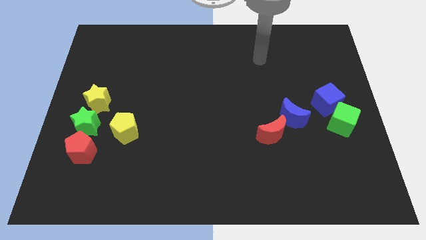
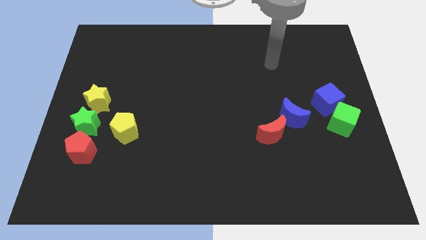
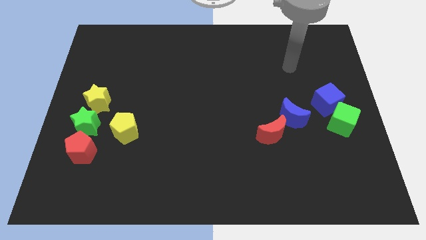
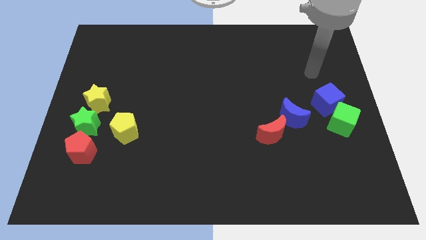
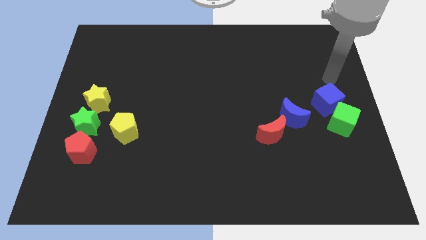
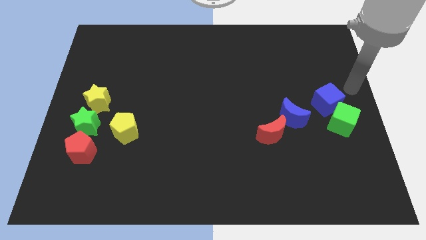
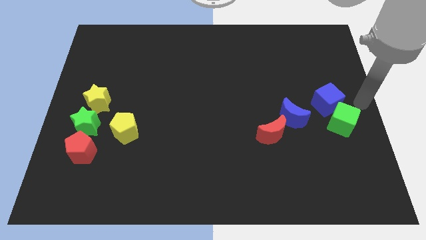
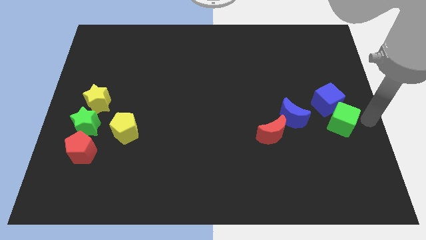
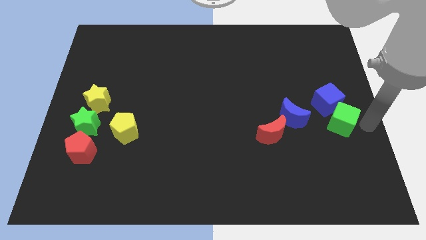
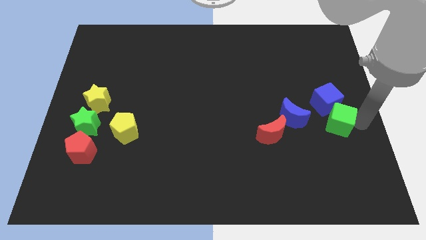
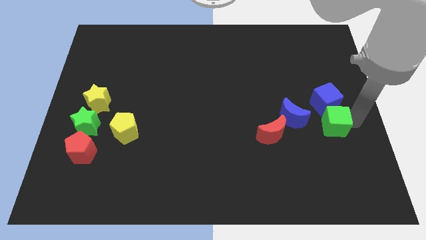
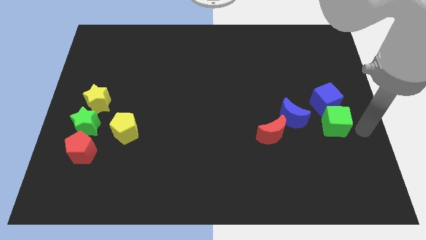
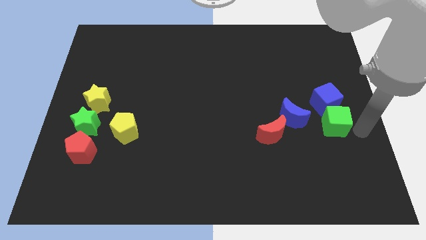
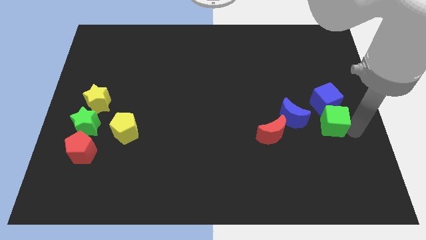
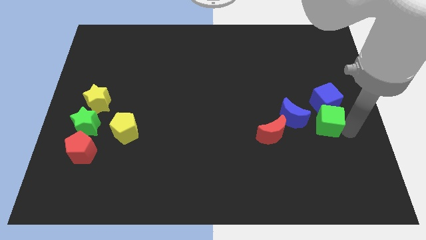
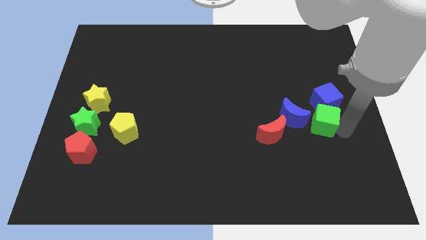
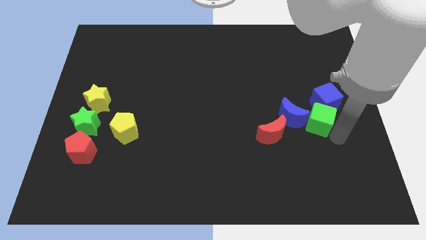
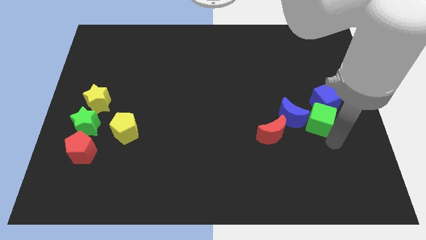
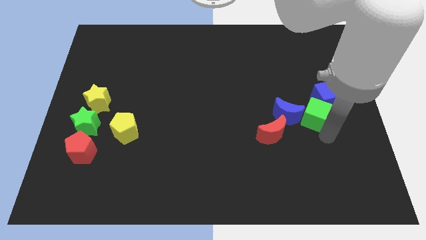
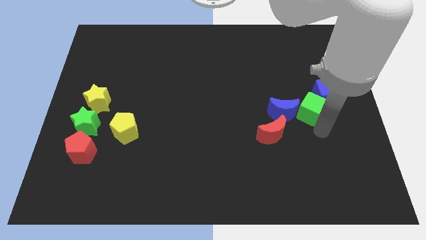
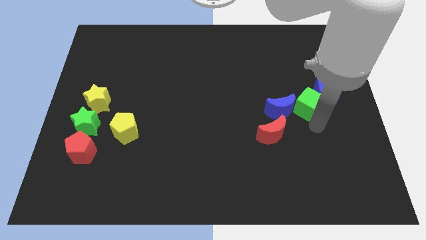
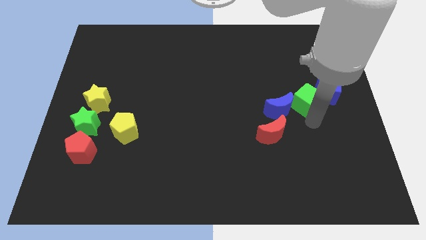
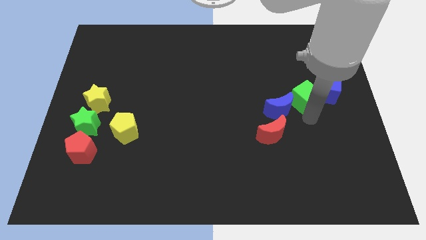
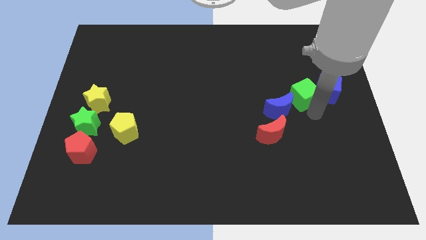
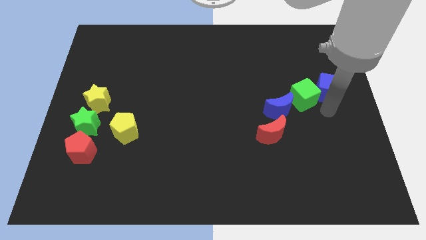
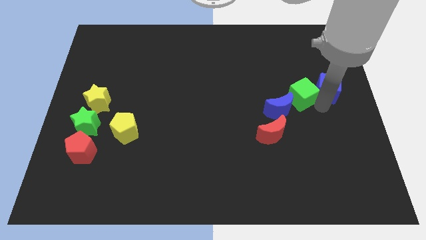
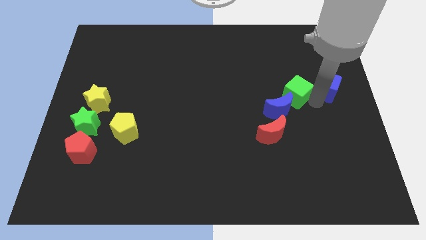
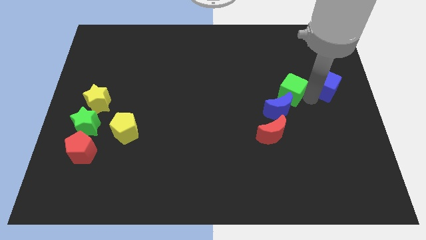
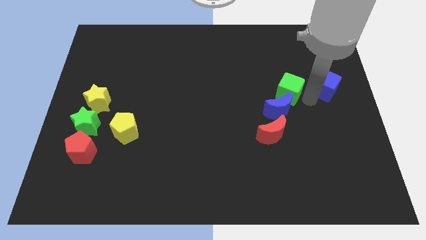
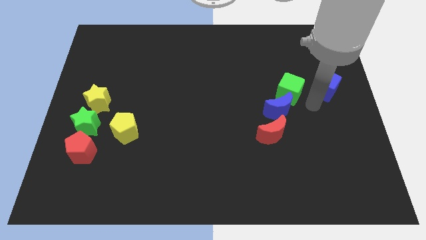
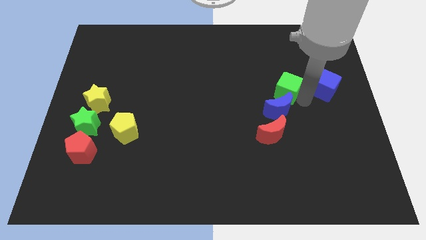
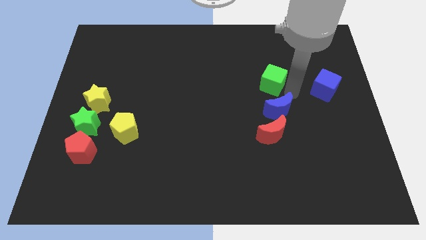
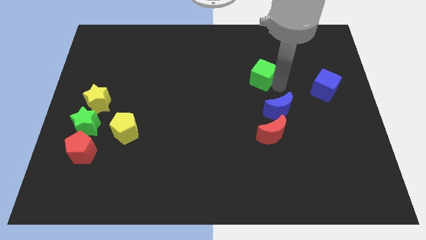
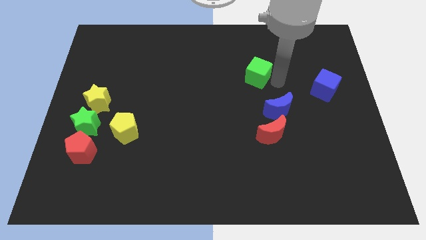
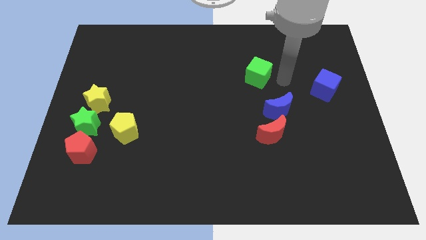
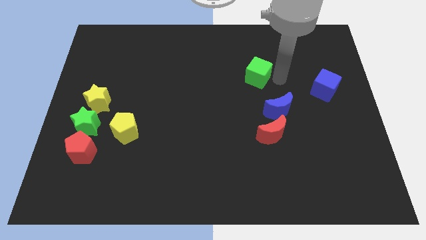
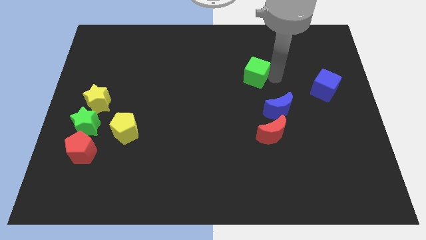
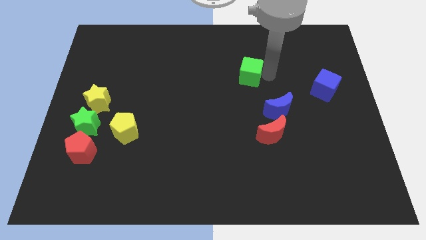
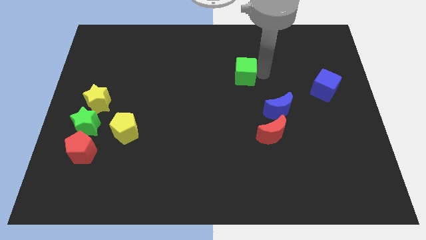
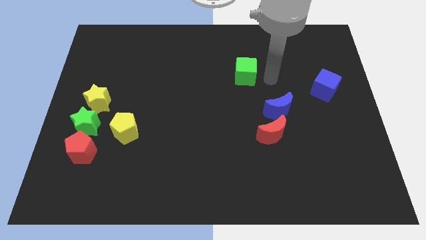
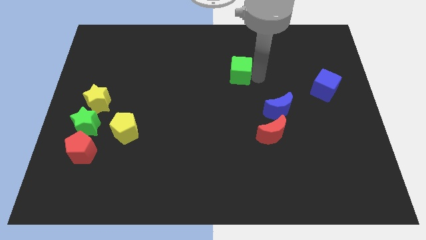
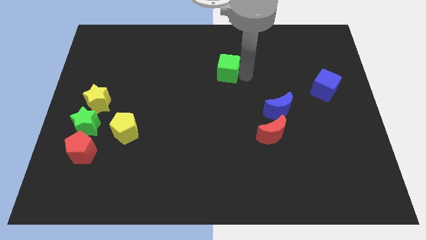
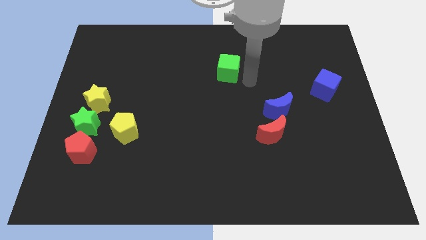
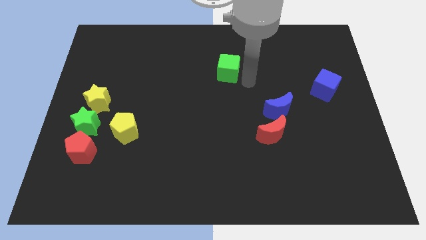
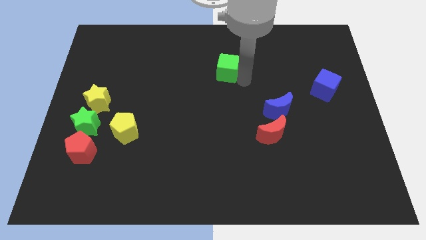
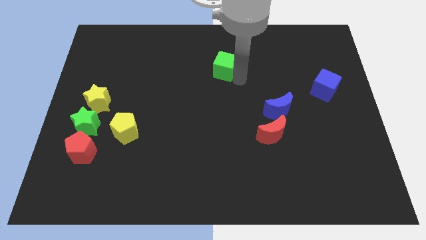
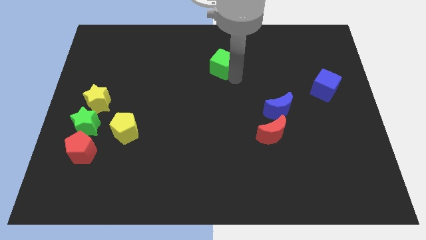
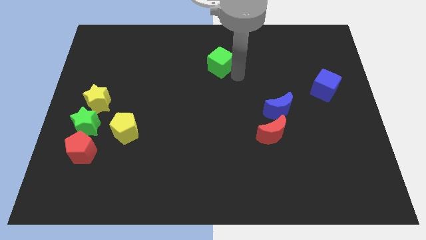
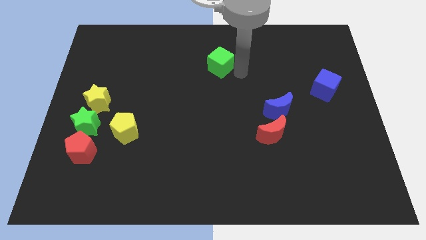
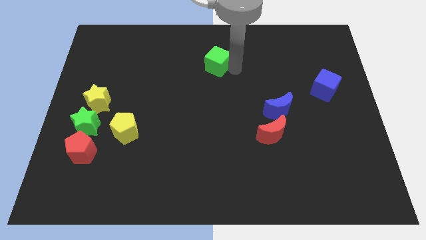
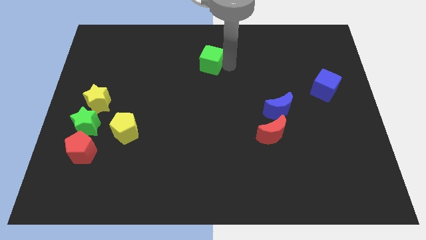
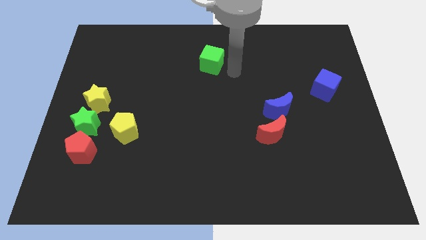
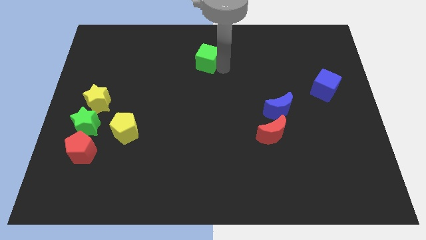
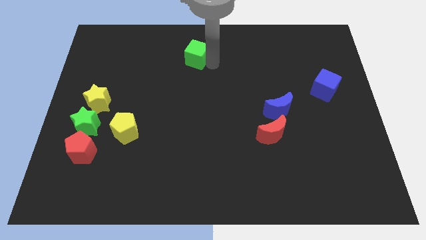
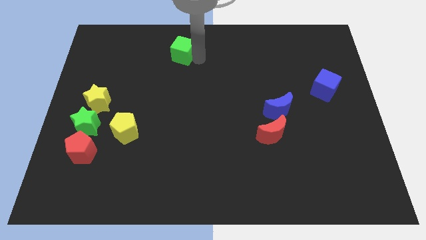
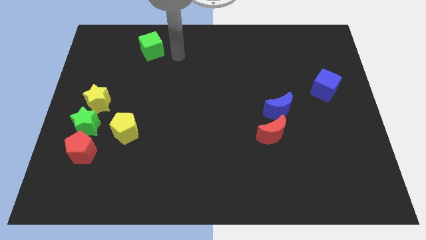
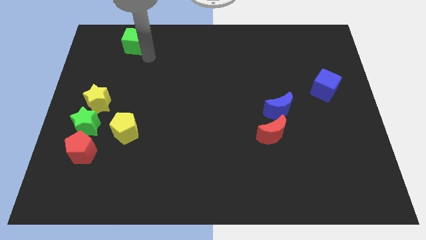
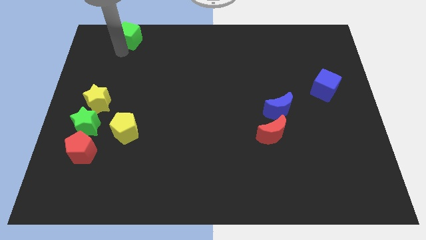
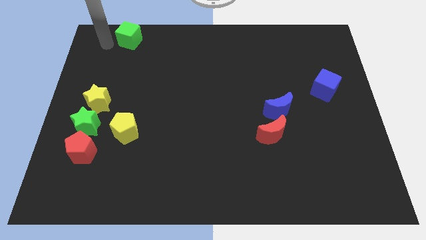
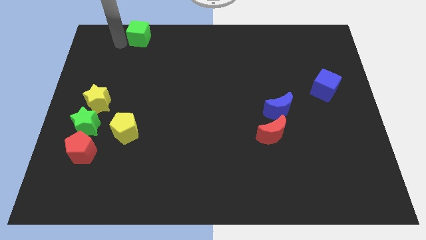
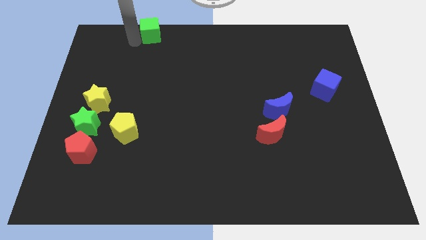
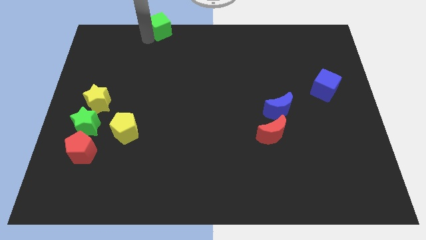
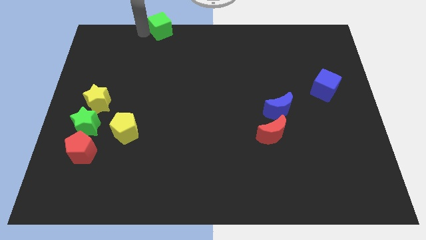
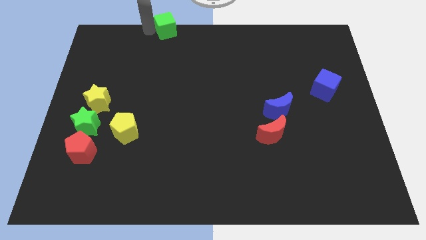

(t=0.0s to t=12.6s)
slide the green cube to the top
